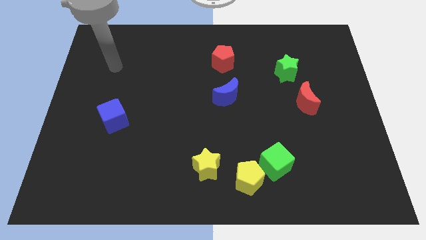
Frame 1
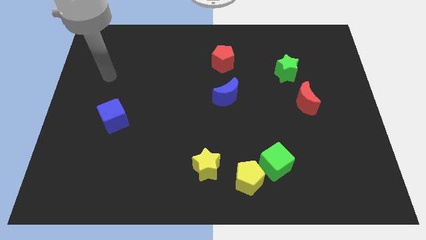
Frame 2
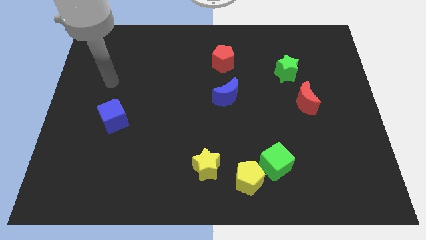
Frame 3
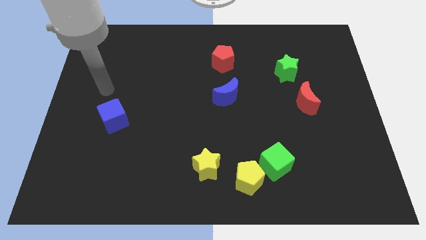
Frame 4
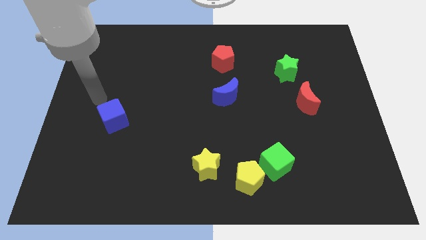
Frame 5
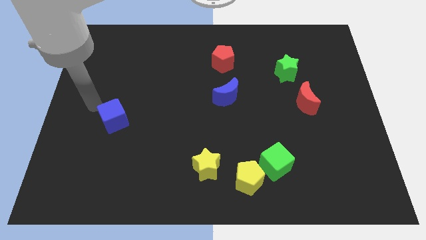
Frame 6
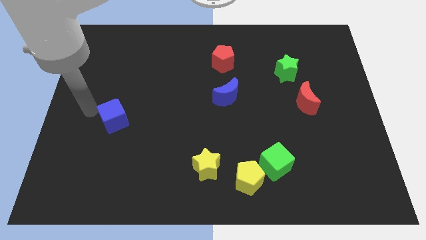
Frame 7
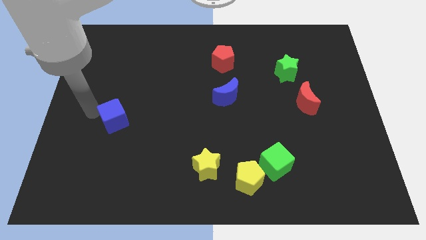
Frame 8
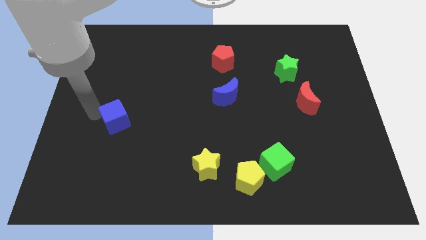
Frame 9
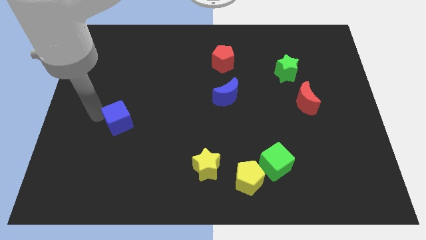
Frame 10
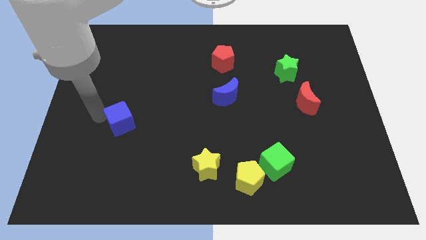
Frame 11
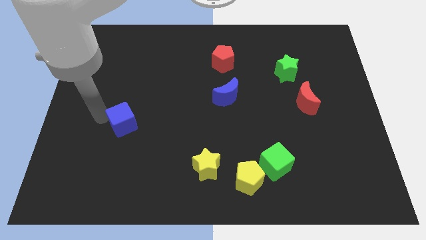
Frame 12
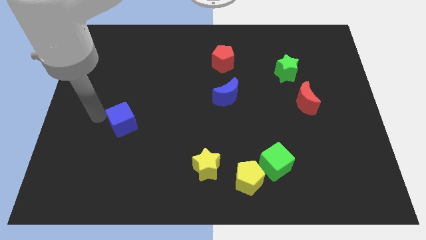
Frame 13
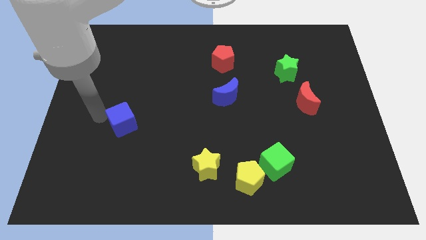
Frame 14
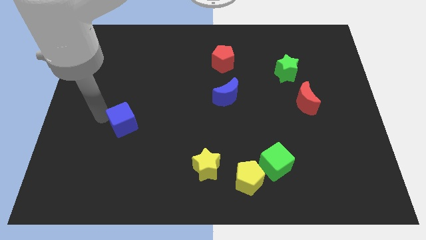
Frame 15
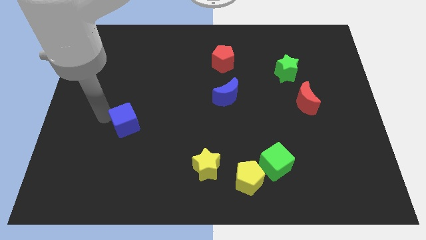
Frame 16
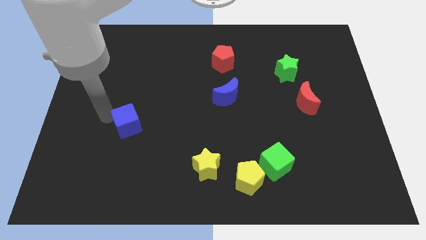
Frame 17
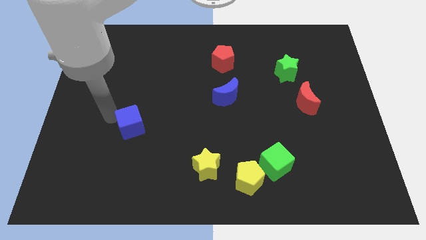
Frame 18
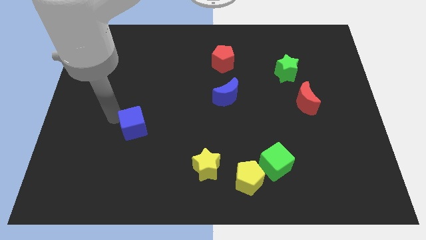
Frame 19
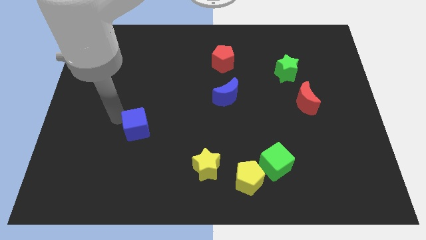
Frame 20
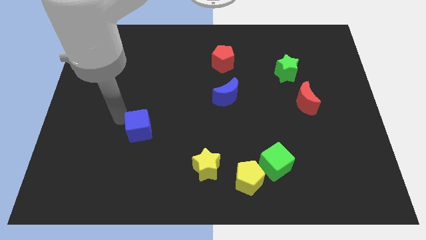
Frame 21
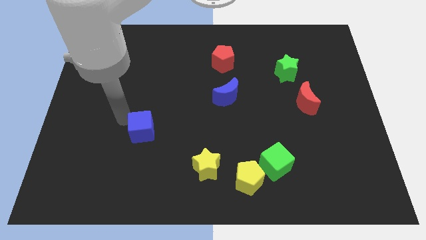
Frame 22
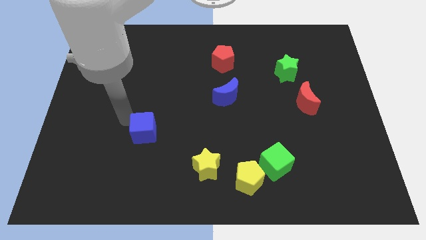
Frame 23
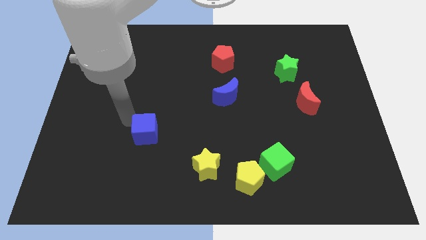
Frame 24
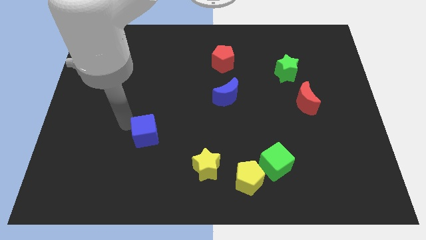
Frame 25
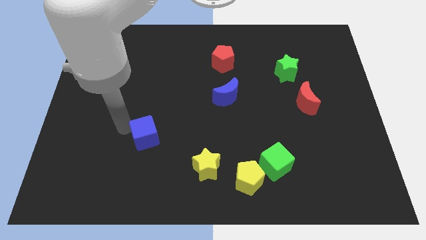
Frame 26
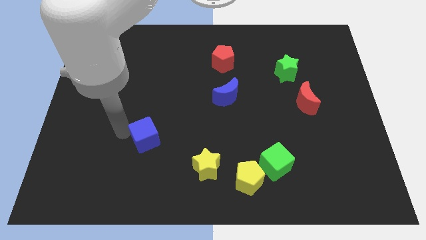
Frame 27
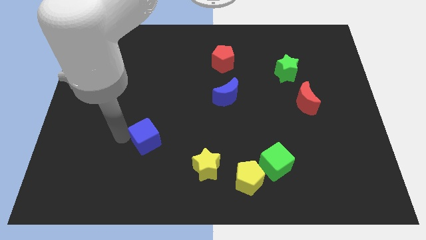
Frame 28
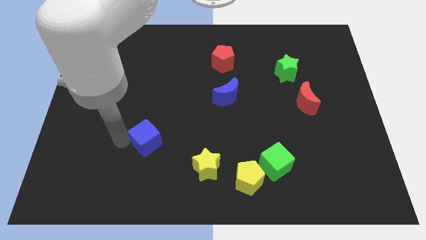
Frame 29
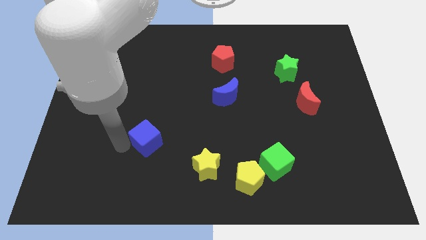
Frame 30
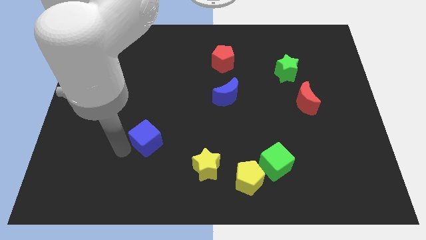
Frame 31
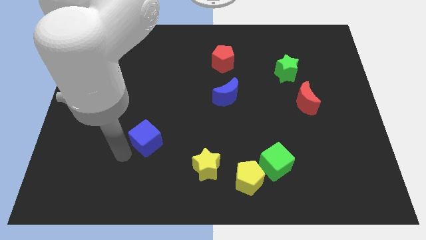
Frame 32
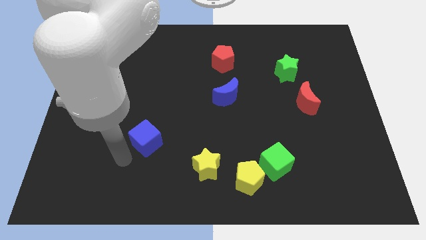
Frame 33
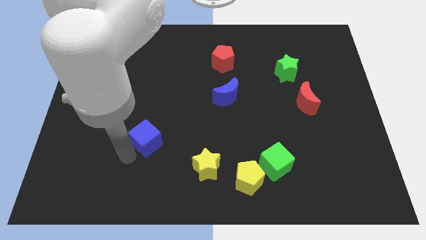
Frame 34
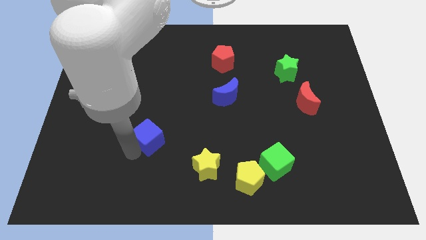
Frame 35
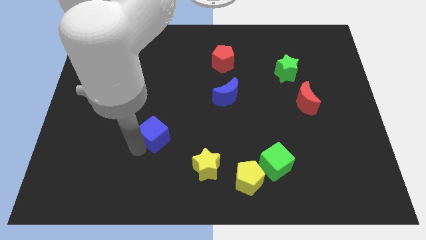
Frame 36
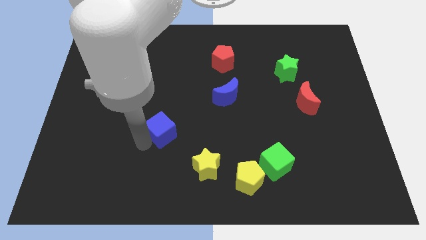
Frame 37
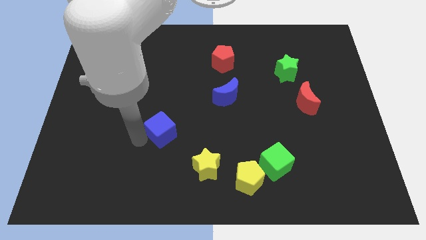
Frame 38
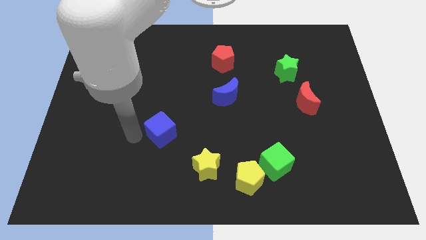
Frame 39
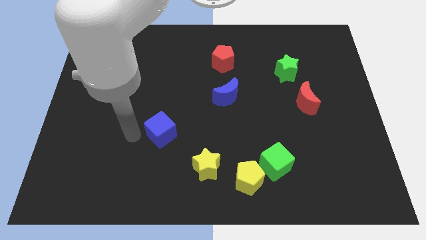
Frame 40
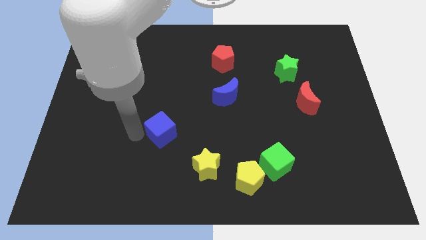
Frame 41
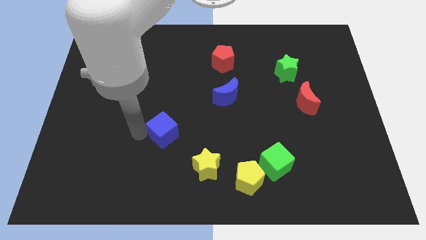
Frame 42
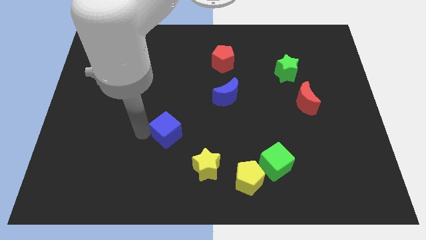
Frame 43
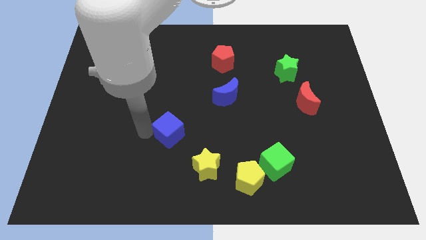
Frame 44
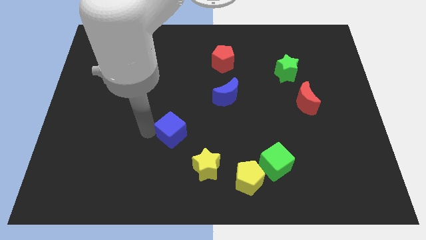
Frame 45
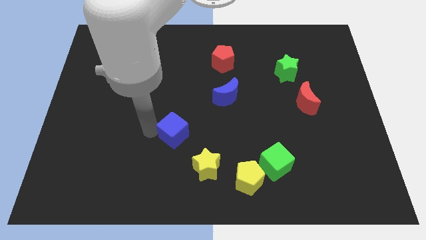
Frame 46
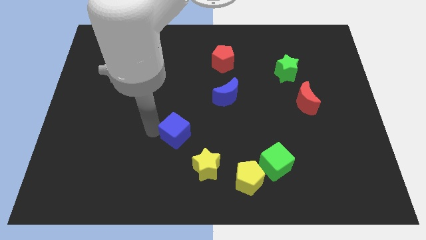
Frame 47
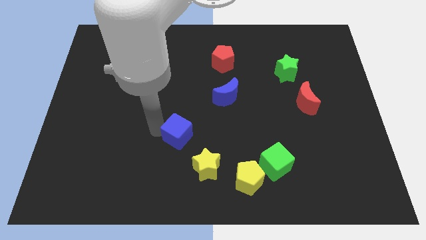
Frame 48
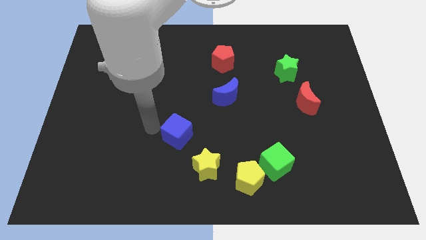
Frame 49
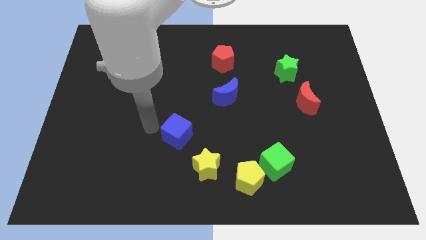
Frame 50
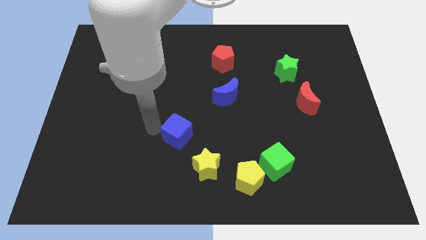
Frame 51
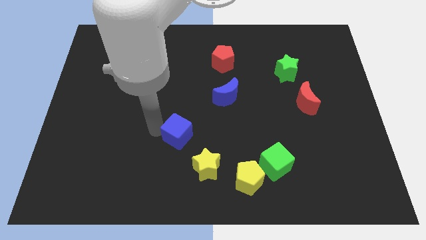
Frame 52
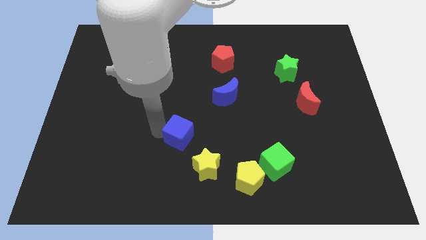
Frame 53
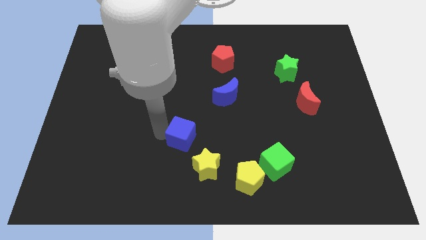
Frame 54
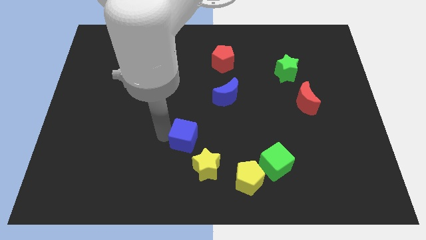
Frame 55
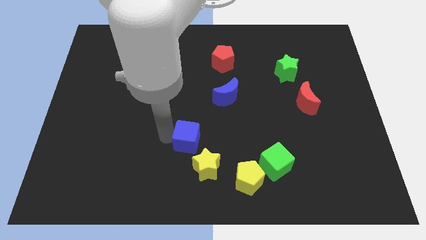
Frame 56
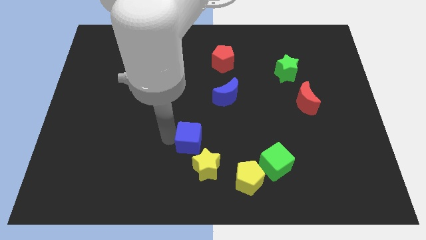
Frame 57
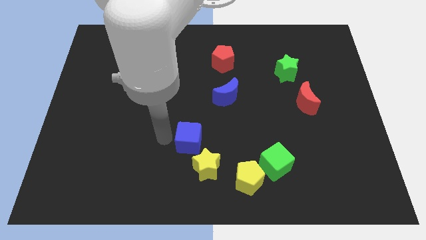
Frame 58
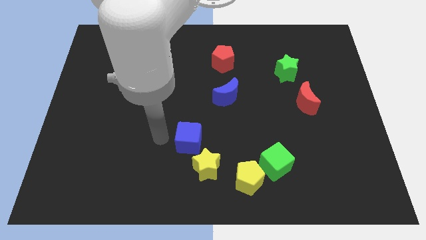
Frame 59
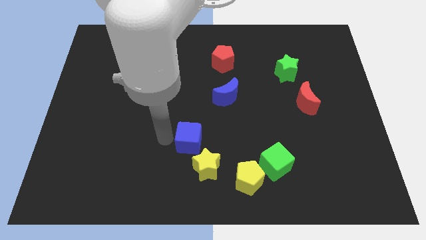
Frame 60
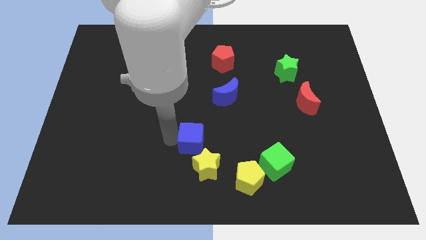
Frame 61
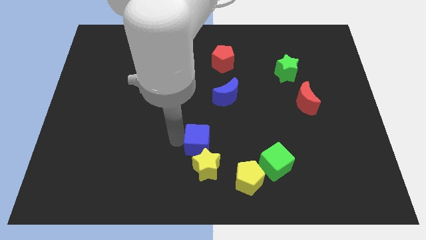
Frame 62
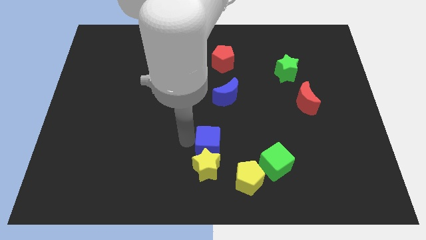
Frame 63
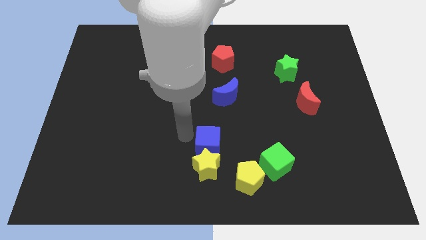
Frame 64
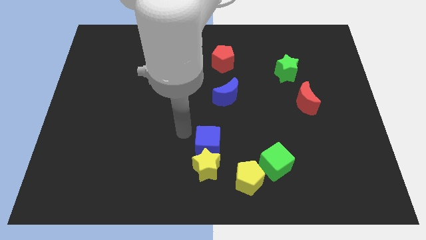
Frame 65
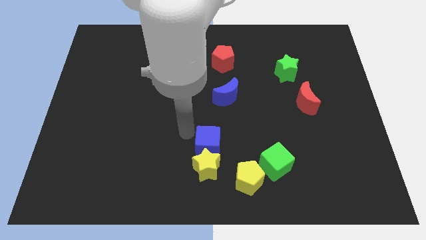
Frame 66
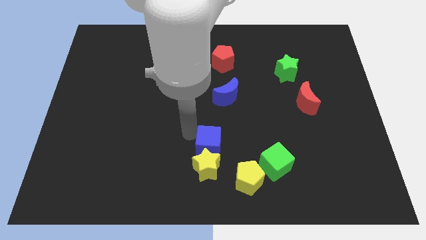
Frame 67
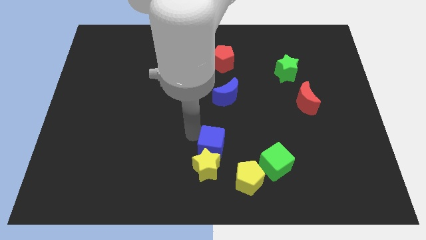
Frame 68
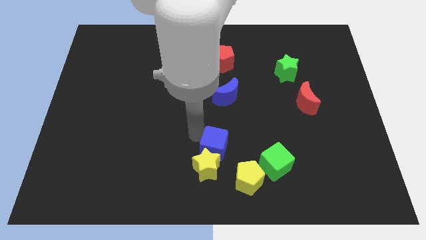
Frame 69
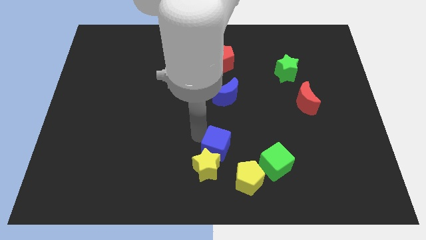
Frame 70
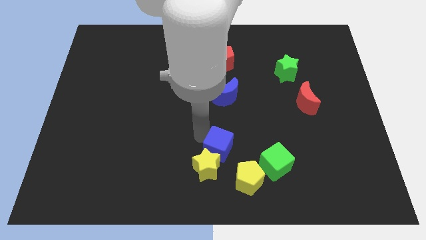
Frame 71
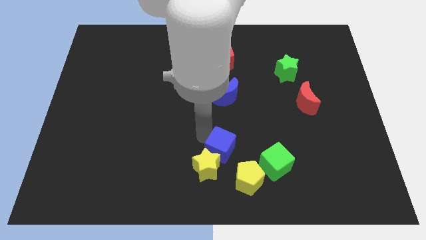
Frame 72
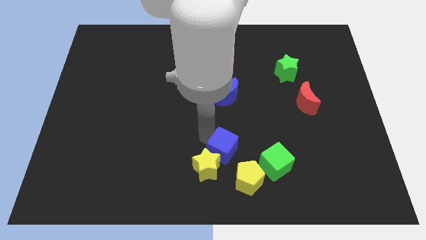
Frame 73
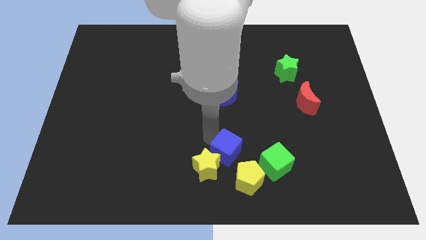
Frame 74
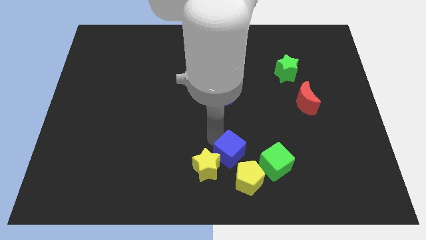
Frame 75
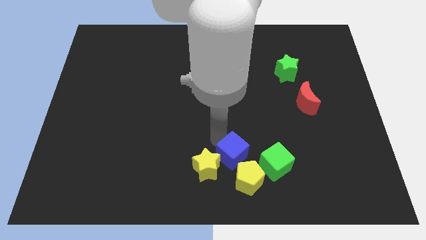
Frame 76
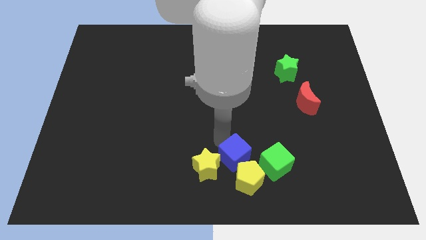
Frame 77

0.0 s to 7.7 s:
move the blue cube towards the yellow pentagon

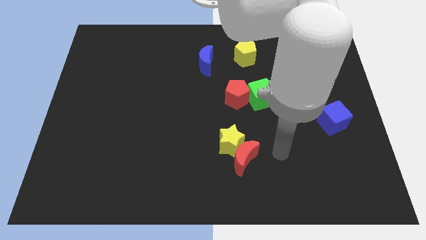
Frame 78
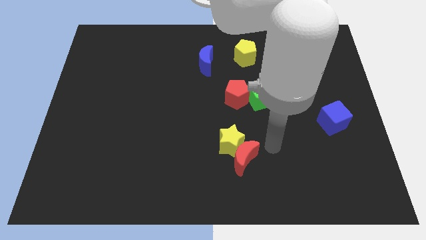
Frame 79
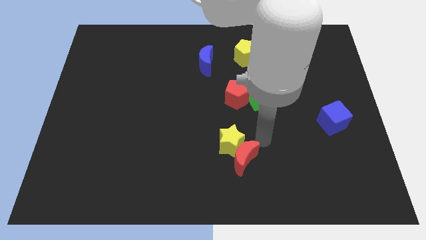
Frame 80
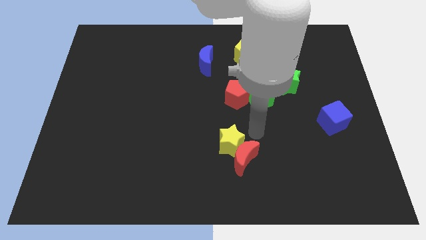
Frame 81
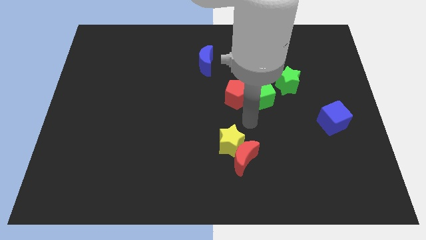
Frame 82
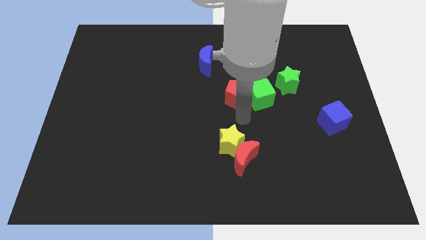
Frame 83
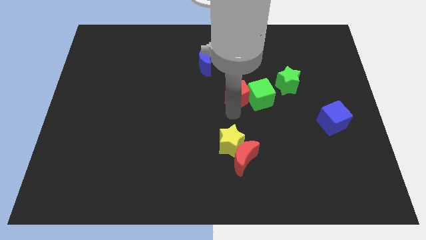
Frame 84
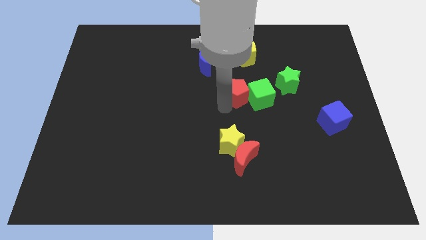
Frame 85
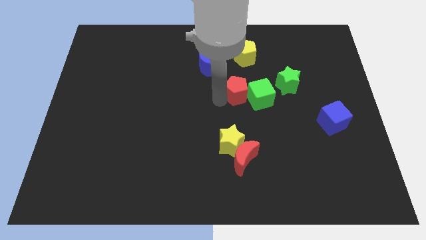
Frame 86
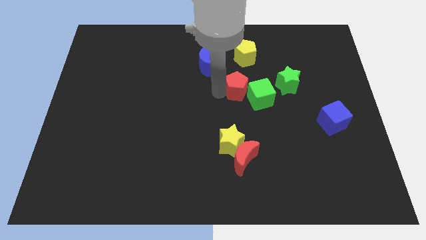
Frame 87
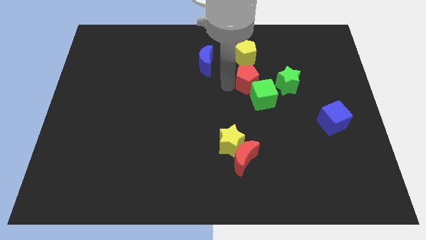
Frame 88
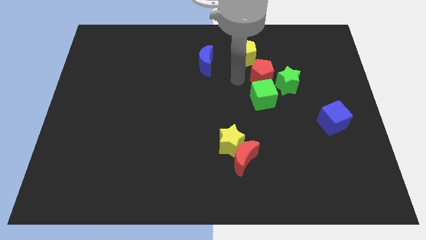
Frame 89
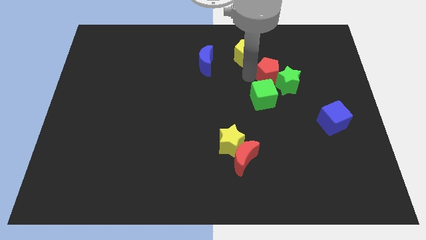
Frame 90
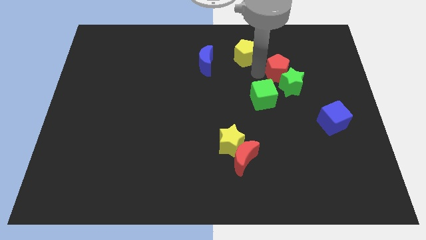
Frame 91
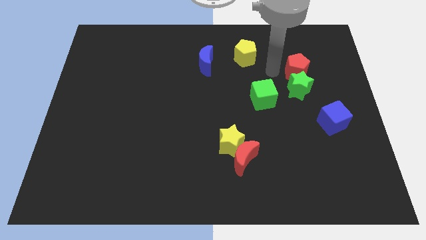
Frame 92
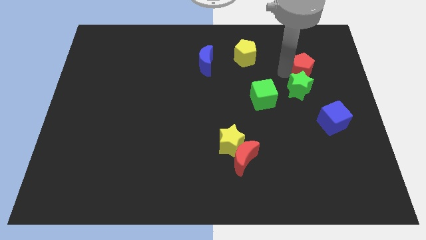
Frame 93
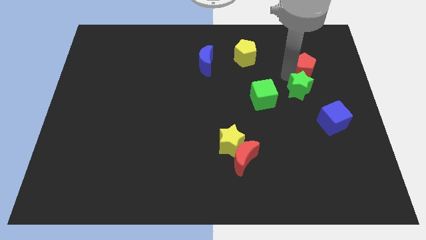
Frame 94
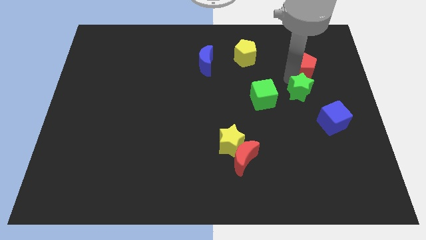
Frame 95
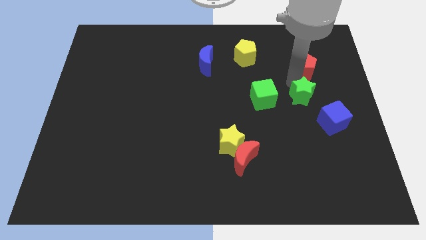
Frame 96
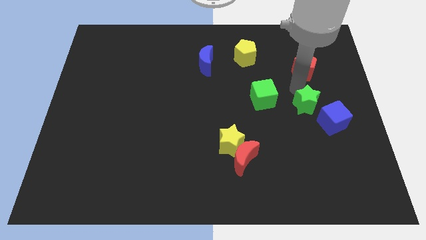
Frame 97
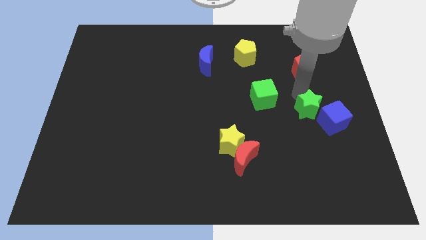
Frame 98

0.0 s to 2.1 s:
push the green star next to the blue cube
